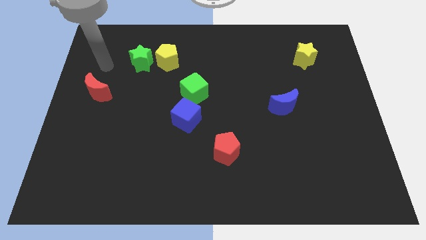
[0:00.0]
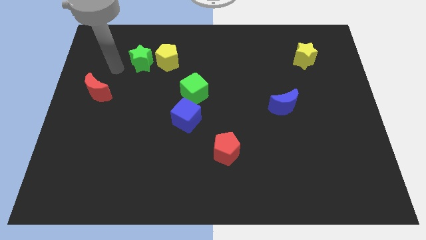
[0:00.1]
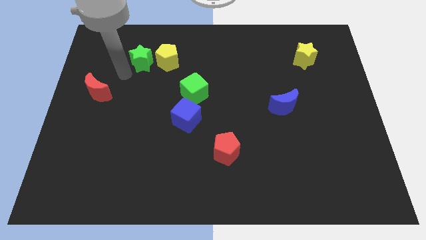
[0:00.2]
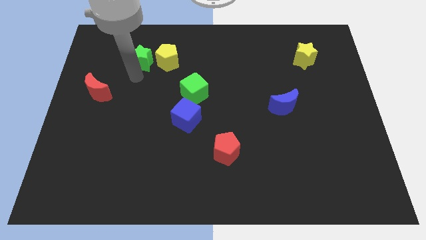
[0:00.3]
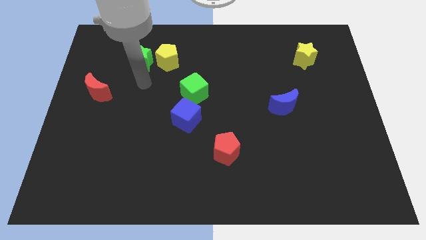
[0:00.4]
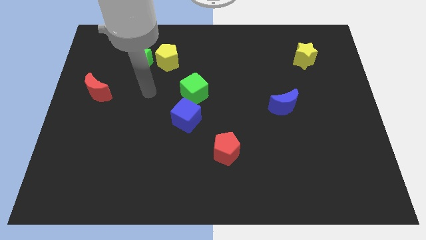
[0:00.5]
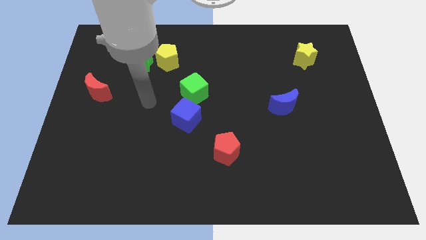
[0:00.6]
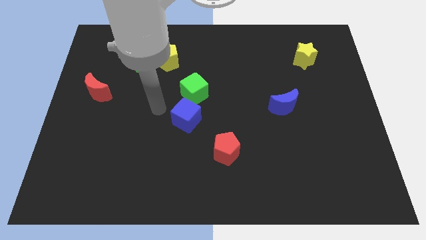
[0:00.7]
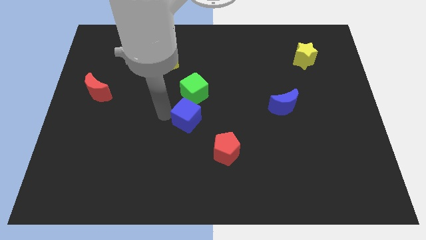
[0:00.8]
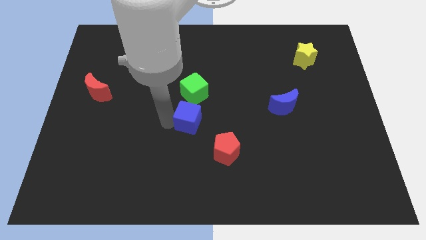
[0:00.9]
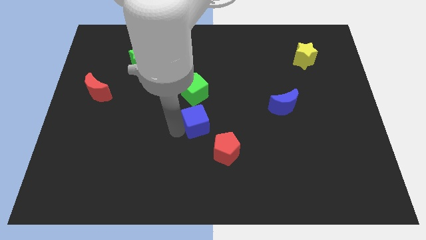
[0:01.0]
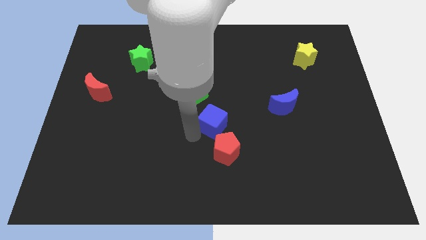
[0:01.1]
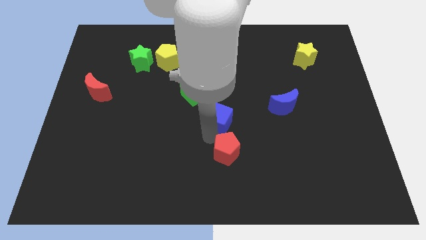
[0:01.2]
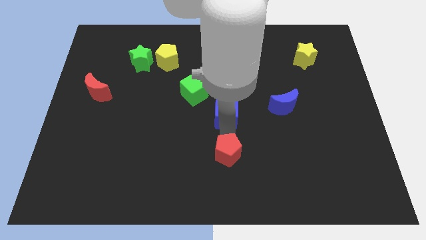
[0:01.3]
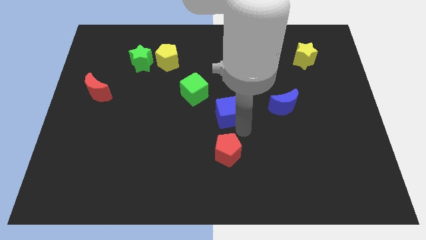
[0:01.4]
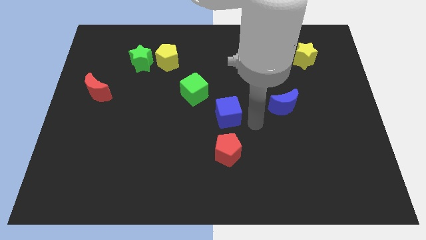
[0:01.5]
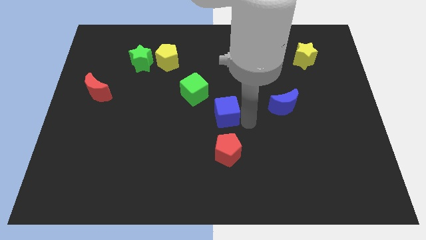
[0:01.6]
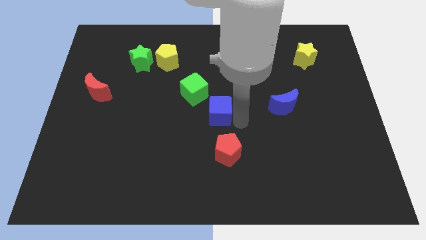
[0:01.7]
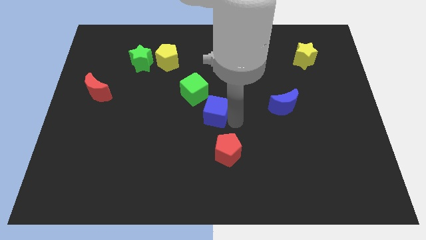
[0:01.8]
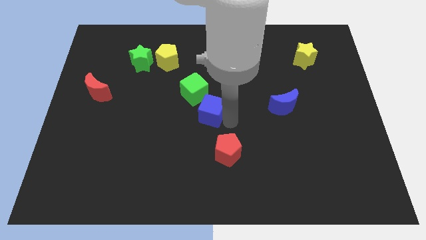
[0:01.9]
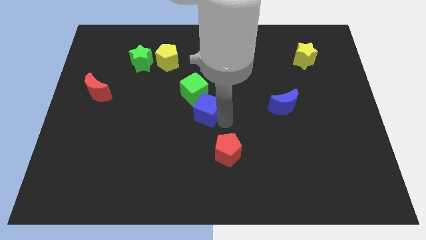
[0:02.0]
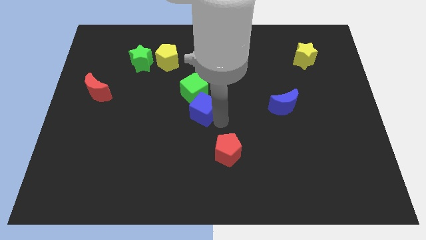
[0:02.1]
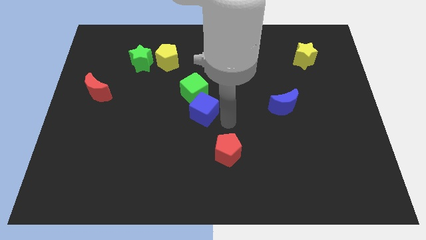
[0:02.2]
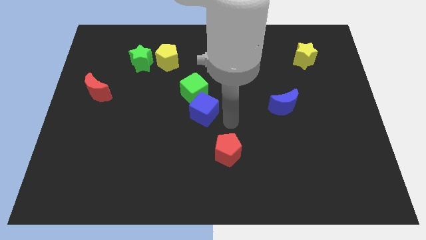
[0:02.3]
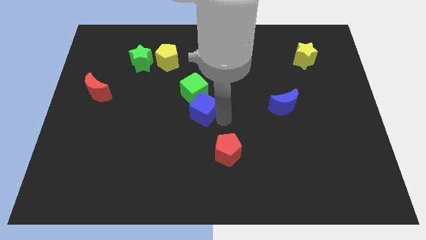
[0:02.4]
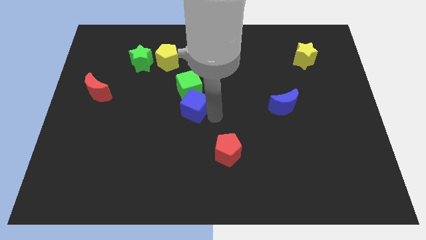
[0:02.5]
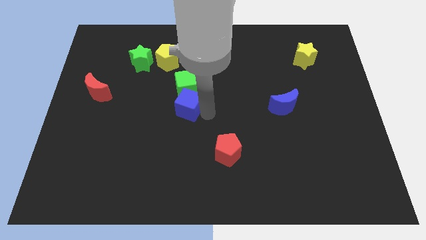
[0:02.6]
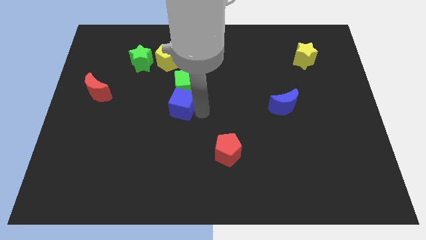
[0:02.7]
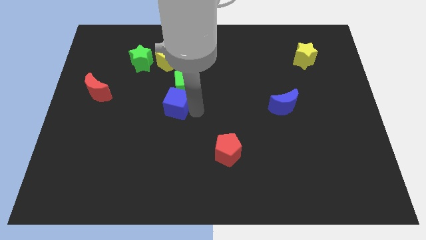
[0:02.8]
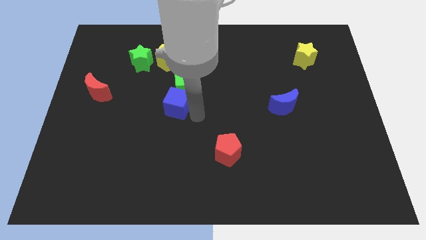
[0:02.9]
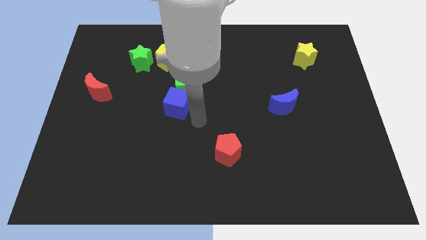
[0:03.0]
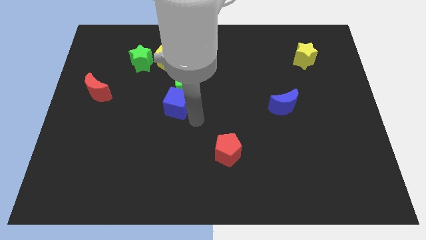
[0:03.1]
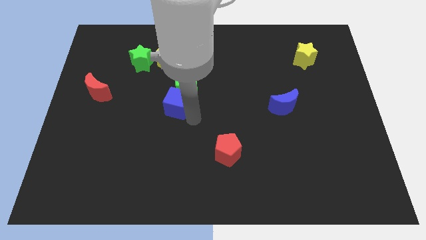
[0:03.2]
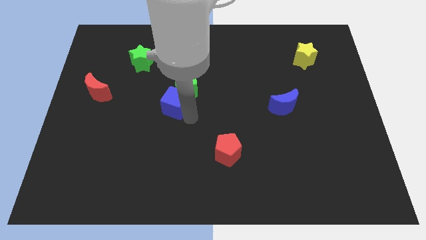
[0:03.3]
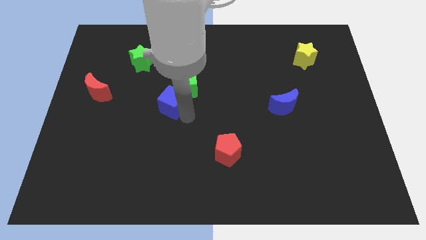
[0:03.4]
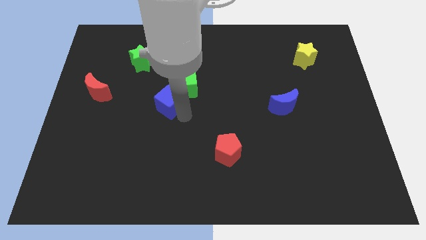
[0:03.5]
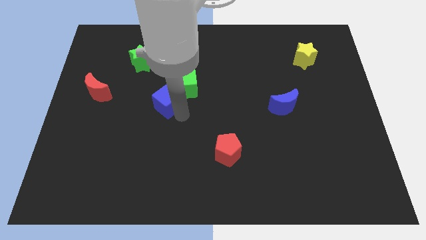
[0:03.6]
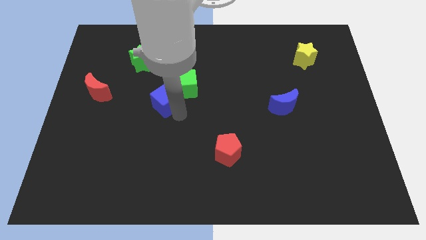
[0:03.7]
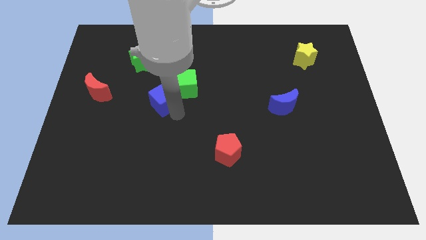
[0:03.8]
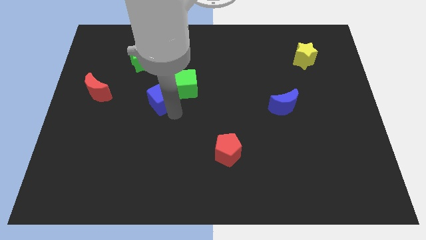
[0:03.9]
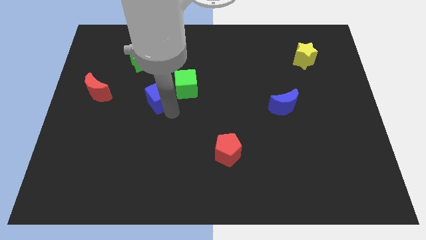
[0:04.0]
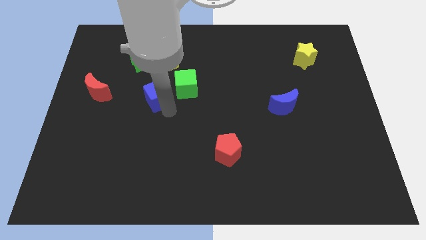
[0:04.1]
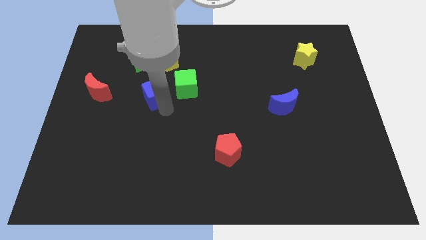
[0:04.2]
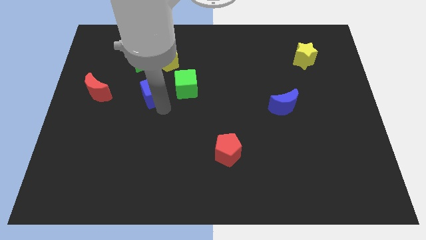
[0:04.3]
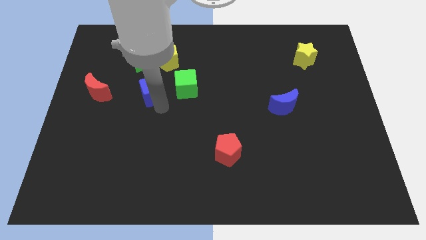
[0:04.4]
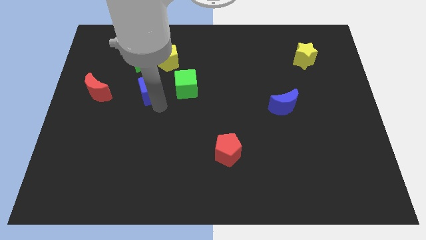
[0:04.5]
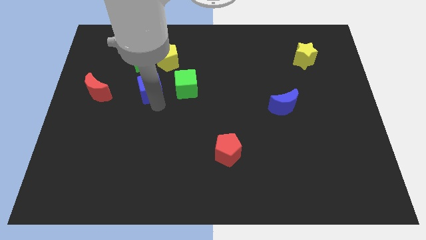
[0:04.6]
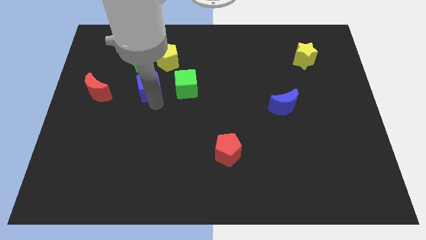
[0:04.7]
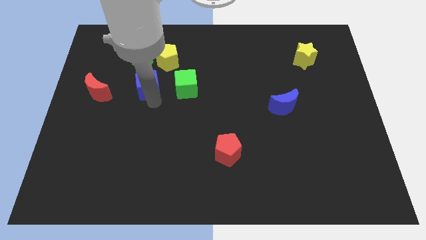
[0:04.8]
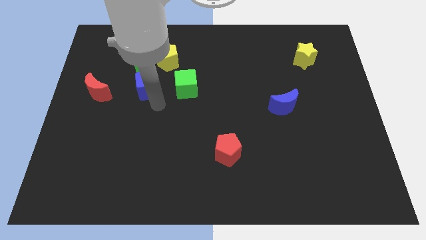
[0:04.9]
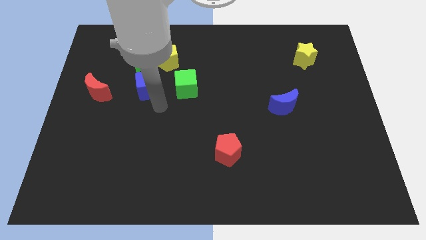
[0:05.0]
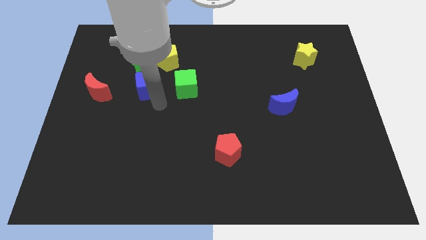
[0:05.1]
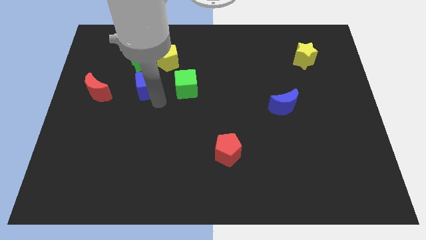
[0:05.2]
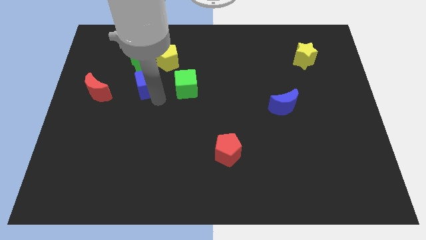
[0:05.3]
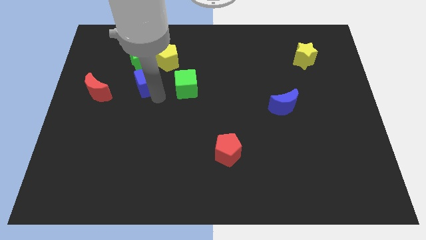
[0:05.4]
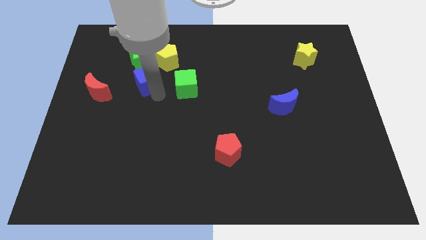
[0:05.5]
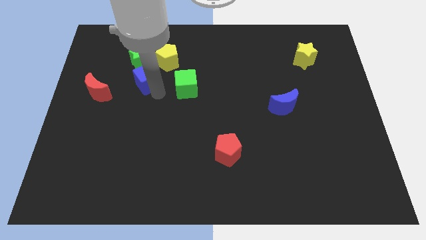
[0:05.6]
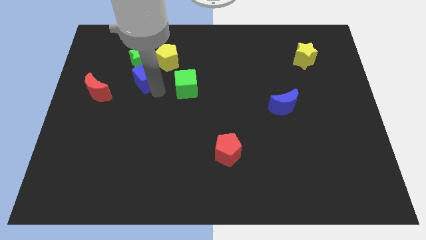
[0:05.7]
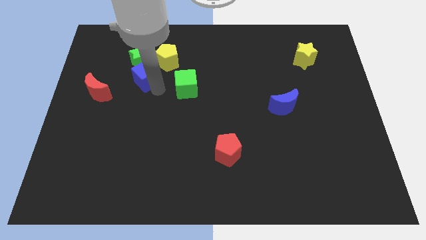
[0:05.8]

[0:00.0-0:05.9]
move the blue cube close to the green star

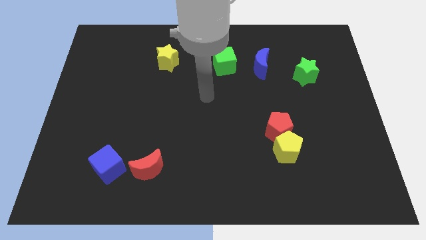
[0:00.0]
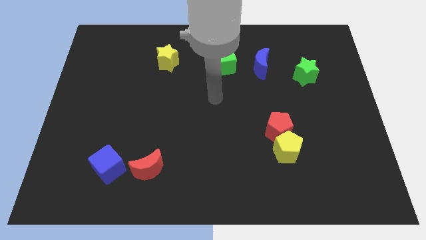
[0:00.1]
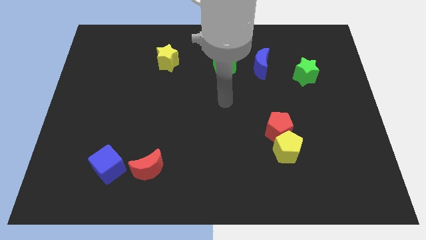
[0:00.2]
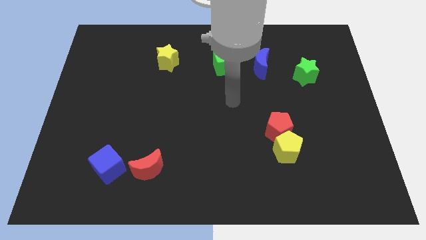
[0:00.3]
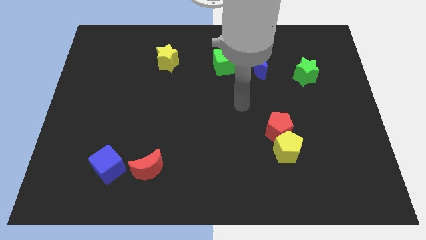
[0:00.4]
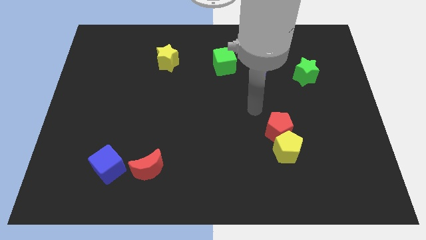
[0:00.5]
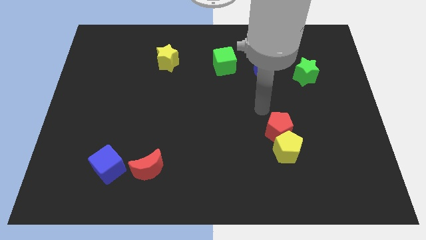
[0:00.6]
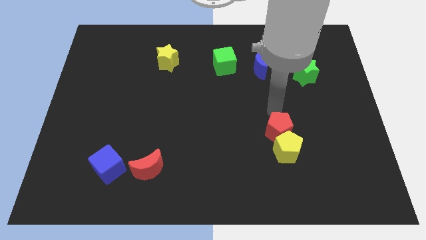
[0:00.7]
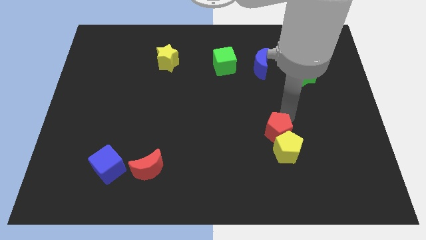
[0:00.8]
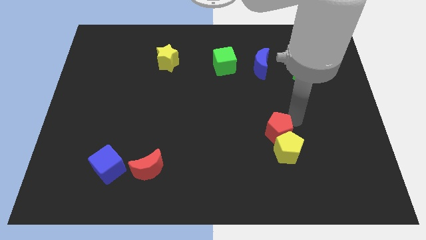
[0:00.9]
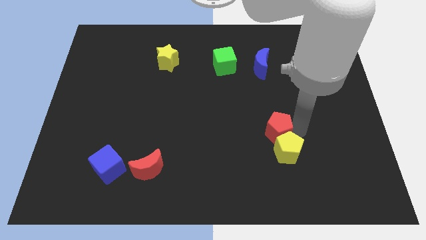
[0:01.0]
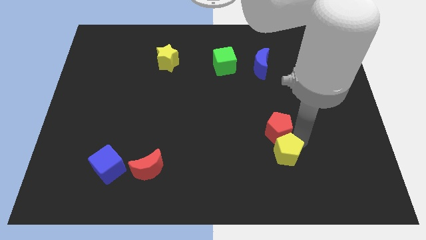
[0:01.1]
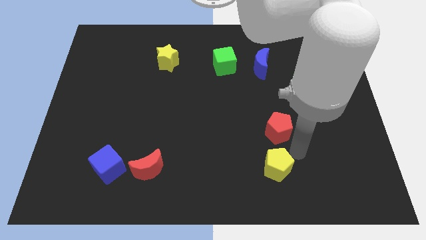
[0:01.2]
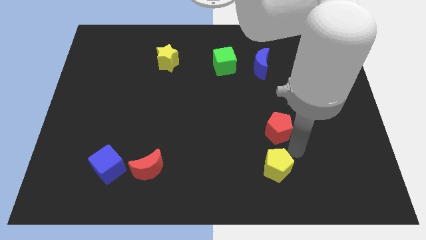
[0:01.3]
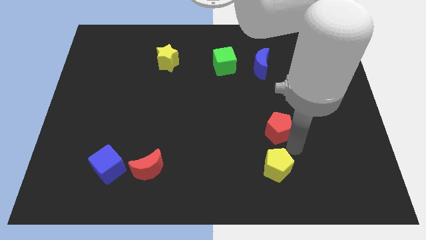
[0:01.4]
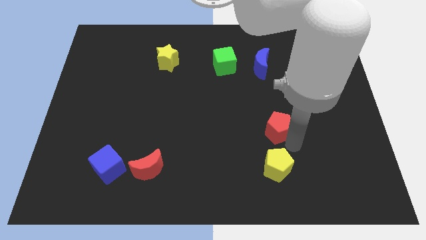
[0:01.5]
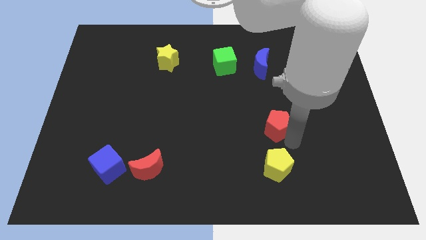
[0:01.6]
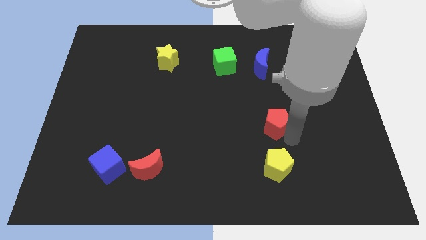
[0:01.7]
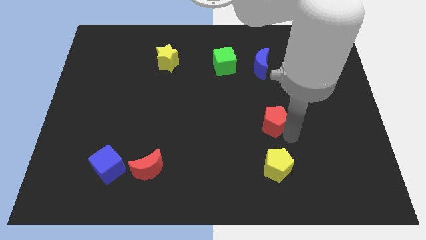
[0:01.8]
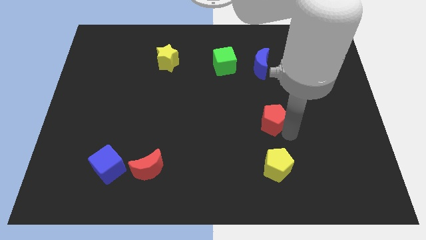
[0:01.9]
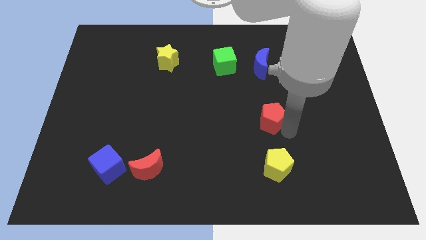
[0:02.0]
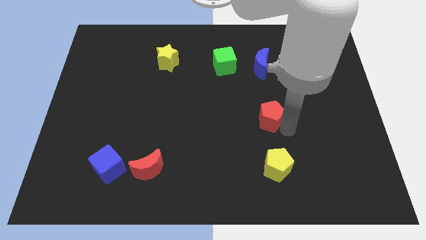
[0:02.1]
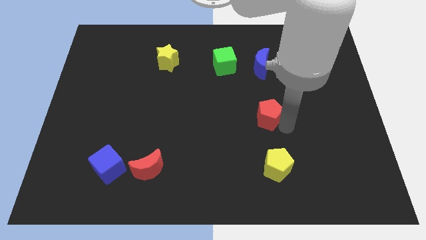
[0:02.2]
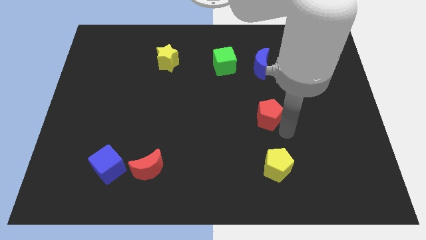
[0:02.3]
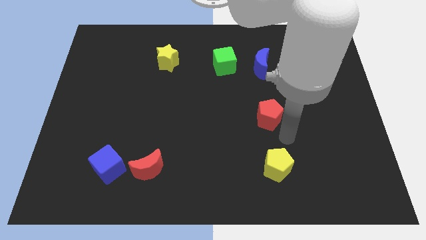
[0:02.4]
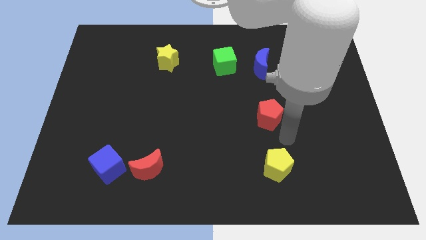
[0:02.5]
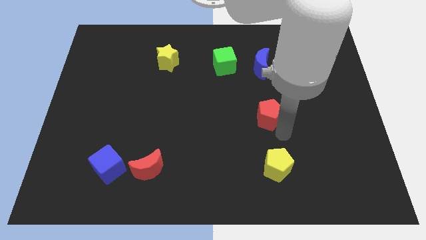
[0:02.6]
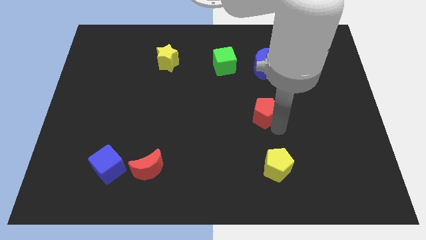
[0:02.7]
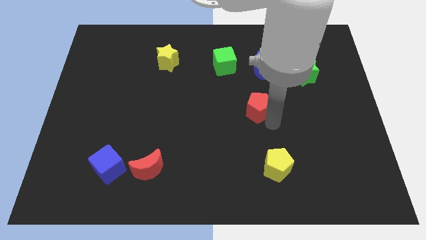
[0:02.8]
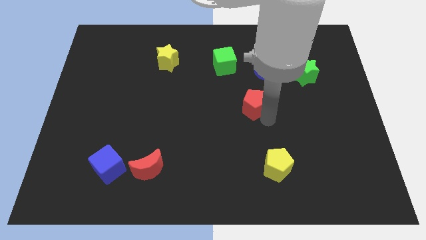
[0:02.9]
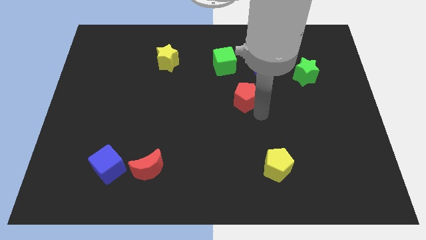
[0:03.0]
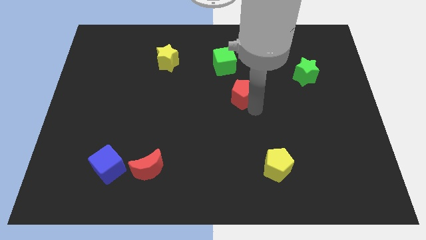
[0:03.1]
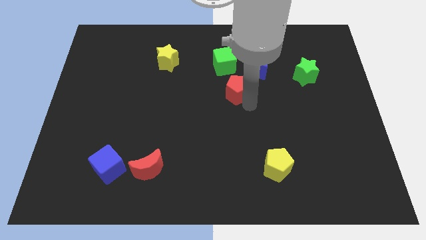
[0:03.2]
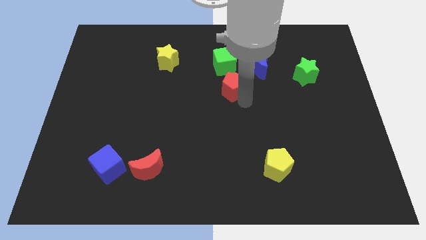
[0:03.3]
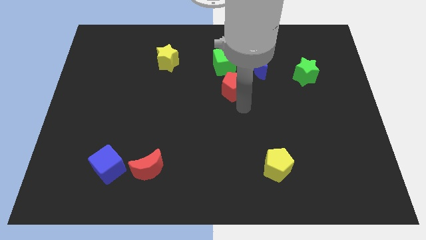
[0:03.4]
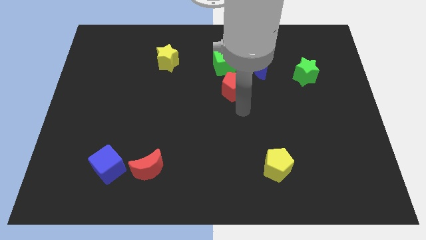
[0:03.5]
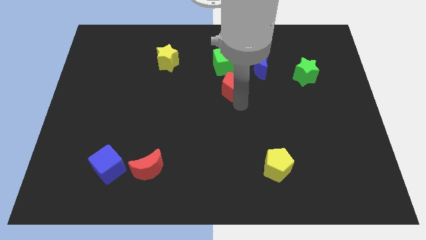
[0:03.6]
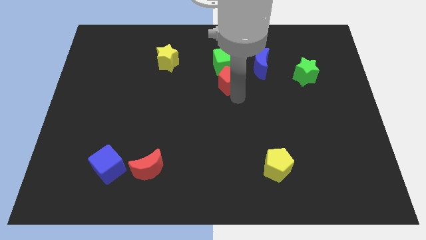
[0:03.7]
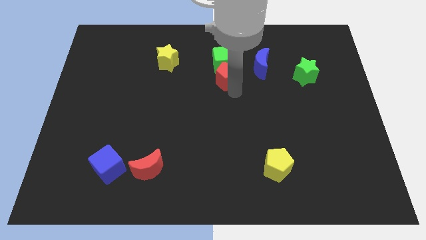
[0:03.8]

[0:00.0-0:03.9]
slide the red pentagon to the green cube
